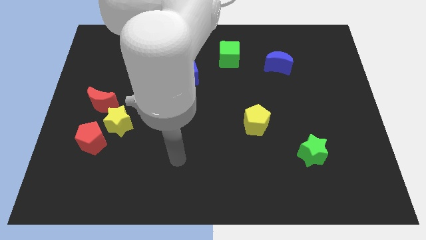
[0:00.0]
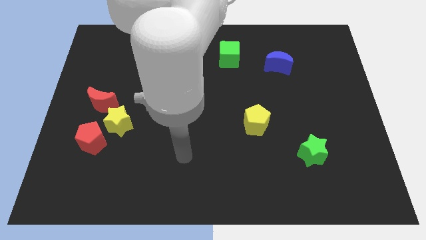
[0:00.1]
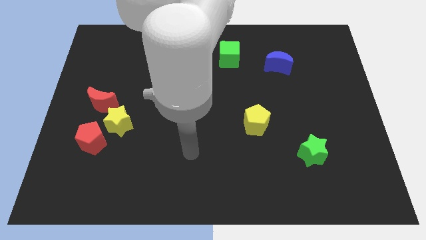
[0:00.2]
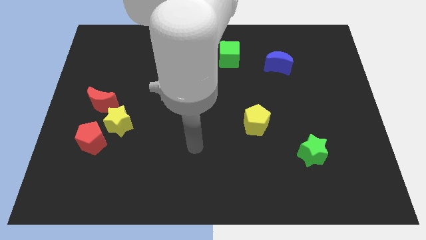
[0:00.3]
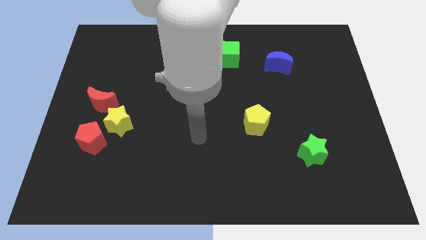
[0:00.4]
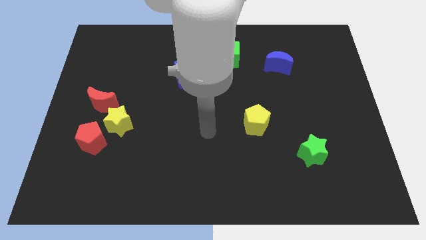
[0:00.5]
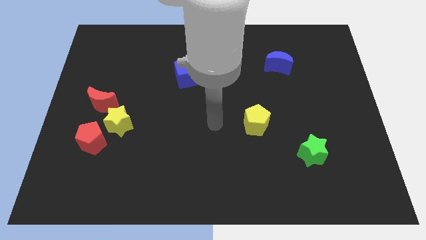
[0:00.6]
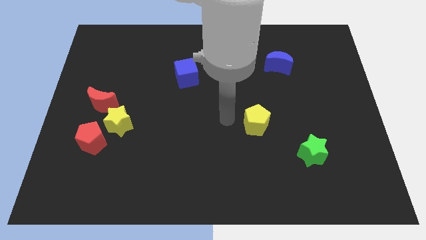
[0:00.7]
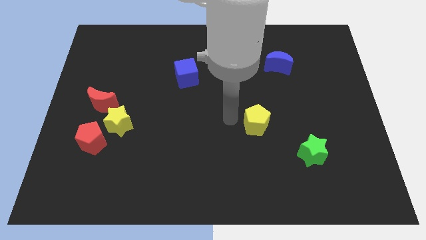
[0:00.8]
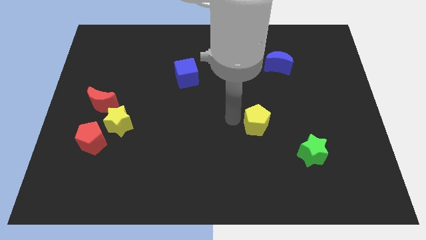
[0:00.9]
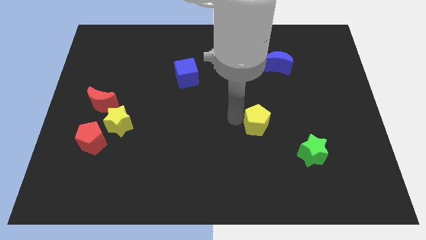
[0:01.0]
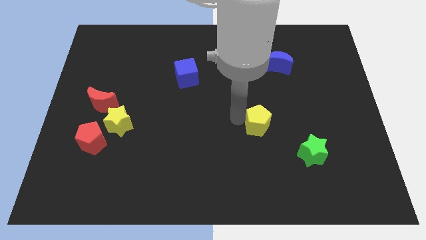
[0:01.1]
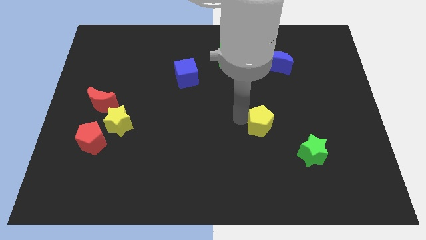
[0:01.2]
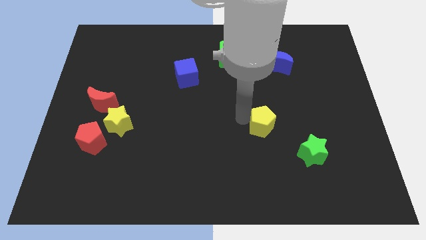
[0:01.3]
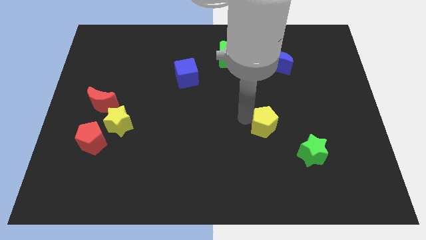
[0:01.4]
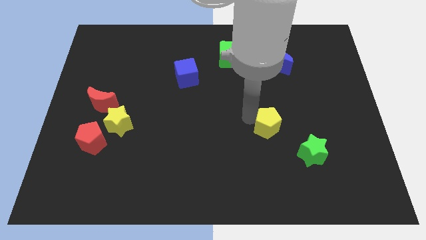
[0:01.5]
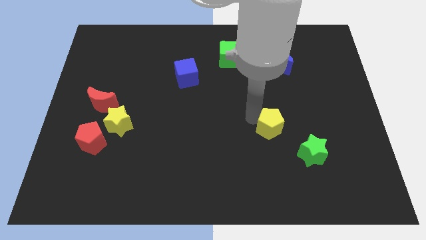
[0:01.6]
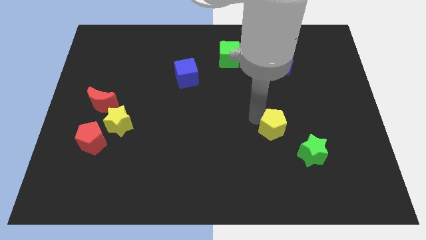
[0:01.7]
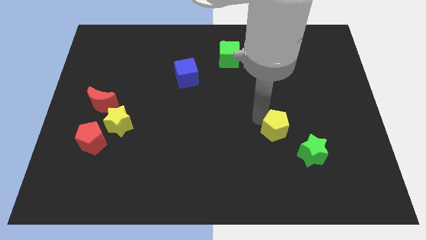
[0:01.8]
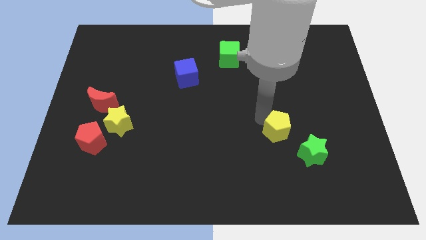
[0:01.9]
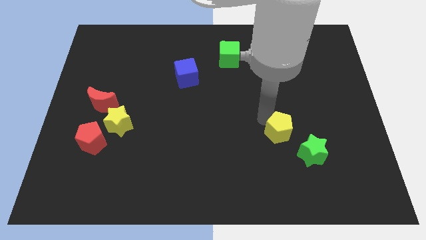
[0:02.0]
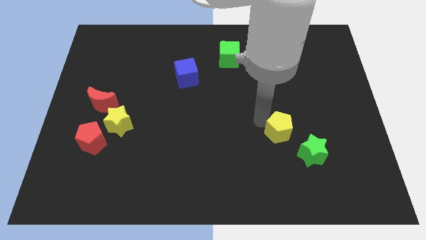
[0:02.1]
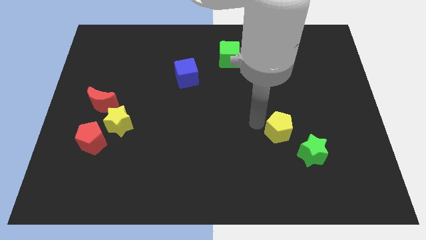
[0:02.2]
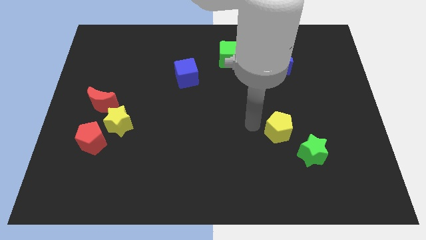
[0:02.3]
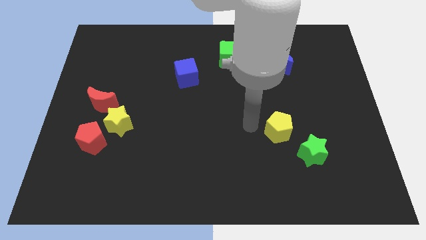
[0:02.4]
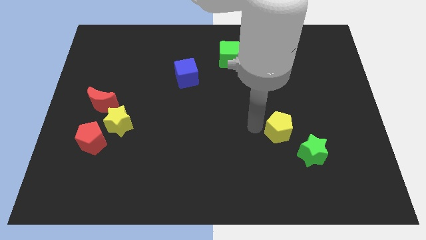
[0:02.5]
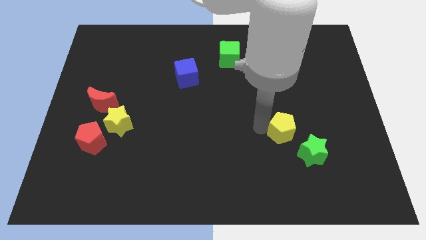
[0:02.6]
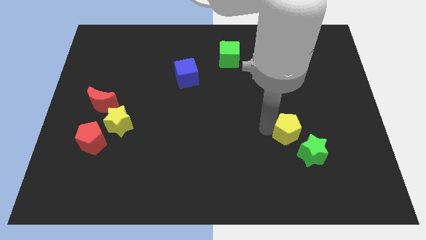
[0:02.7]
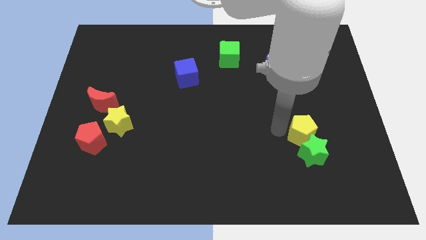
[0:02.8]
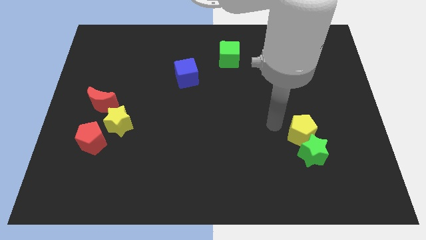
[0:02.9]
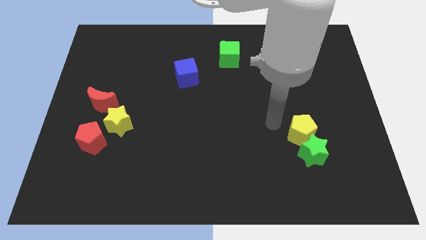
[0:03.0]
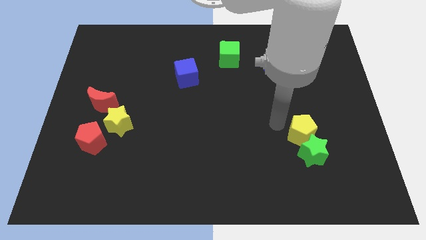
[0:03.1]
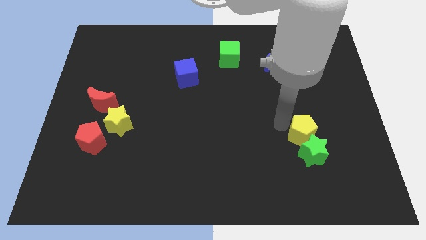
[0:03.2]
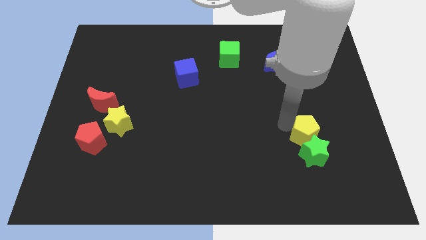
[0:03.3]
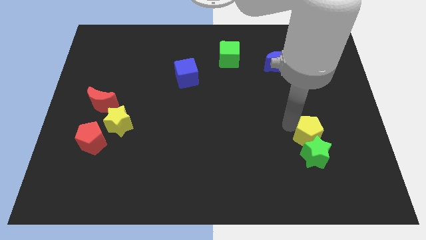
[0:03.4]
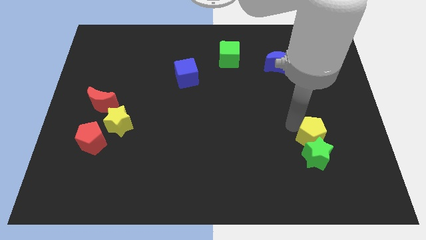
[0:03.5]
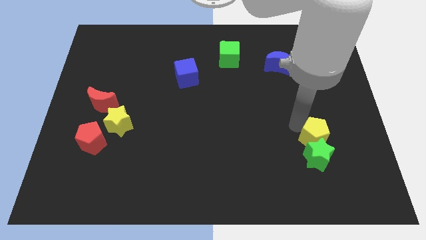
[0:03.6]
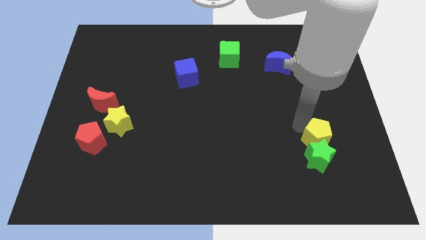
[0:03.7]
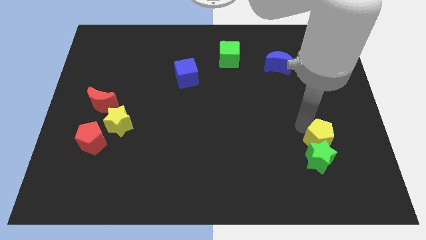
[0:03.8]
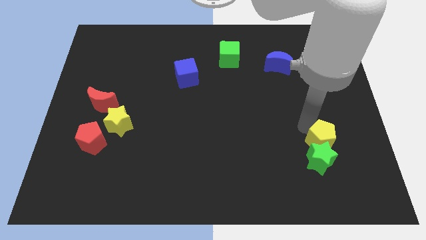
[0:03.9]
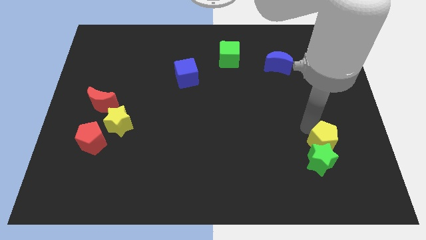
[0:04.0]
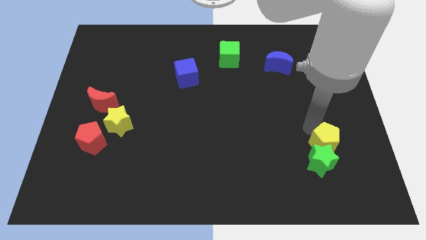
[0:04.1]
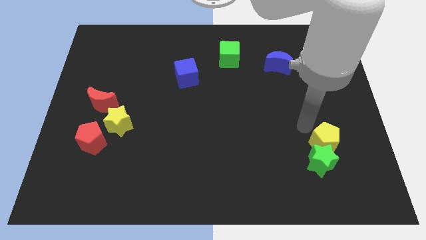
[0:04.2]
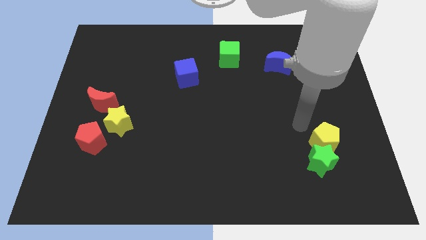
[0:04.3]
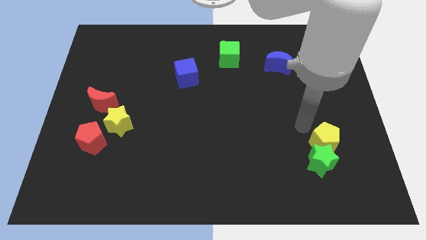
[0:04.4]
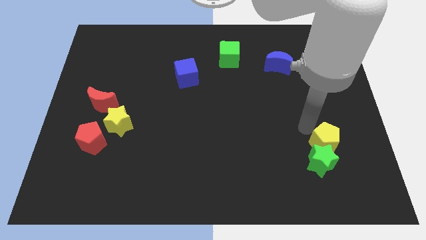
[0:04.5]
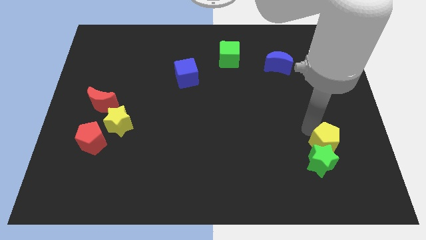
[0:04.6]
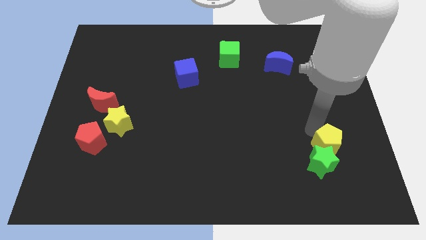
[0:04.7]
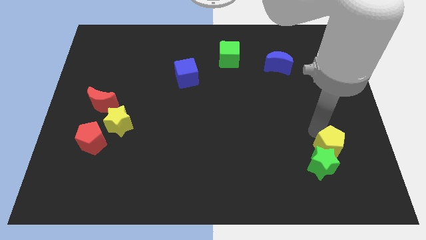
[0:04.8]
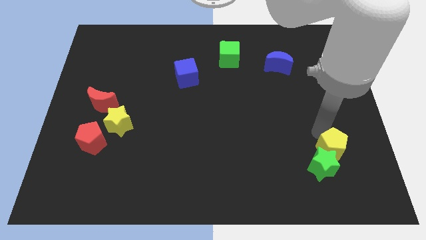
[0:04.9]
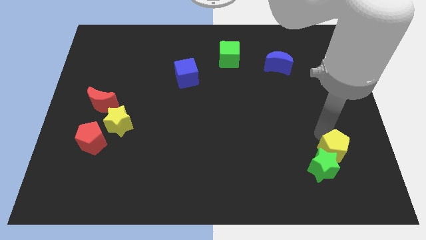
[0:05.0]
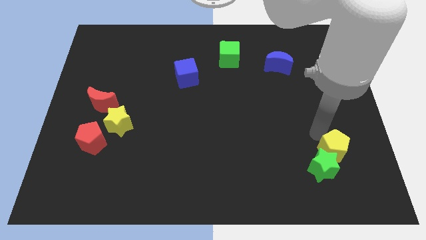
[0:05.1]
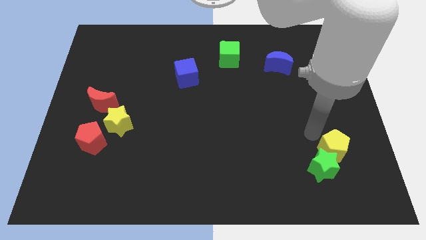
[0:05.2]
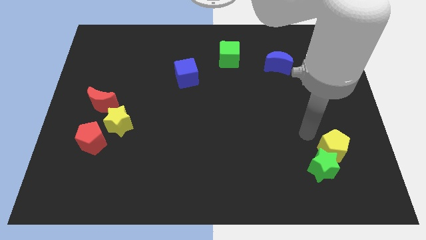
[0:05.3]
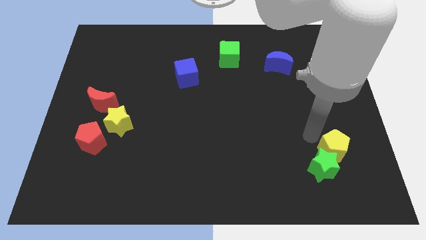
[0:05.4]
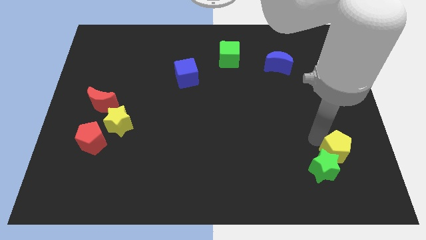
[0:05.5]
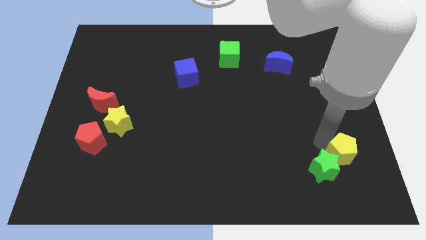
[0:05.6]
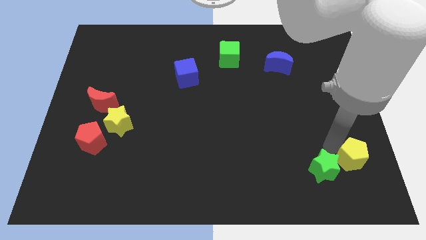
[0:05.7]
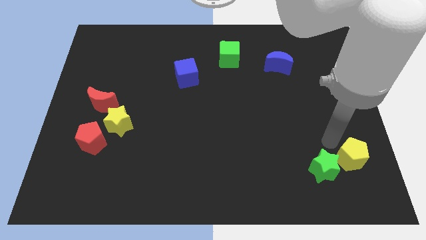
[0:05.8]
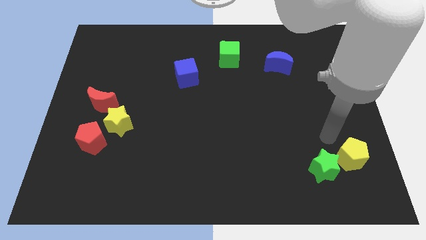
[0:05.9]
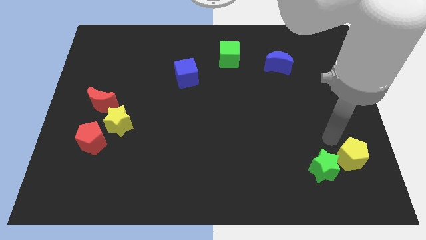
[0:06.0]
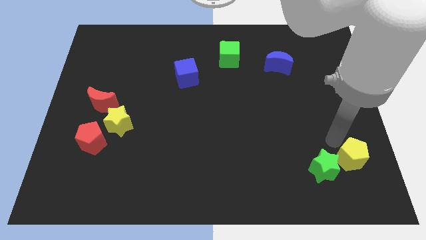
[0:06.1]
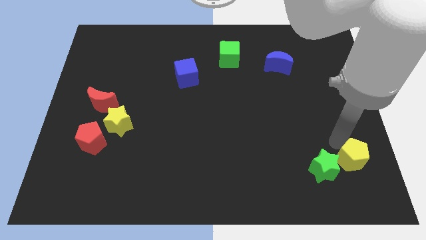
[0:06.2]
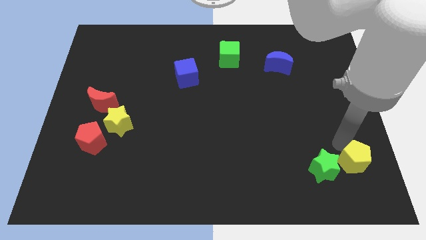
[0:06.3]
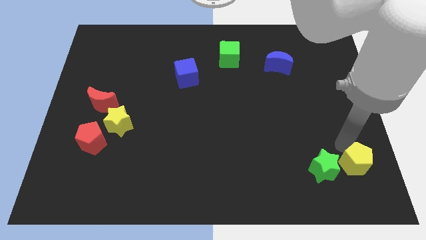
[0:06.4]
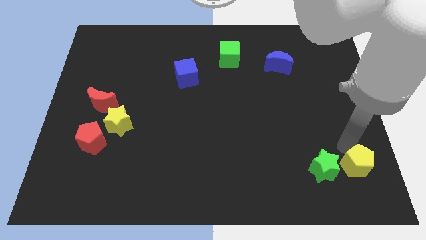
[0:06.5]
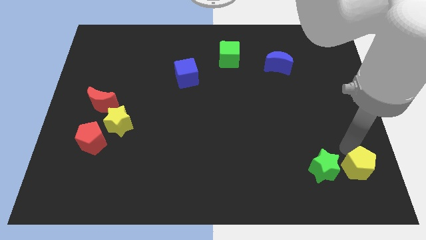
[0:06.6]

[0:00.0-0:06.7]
push the yellow pentagon to the bottom right of the board
